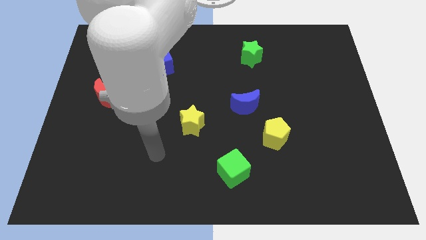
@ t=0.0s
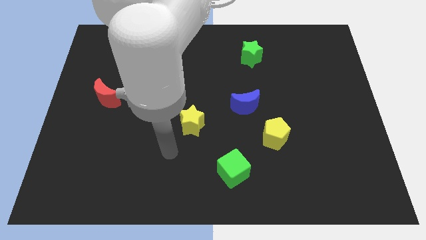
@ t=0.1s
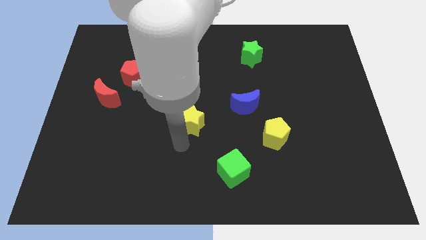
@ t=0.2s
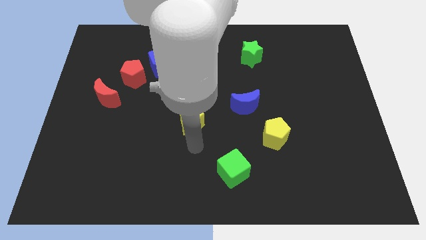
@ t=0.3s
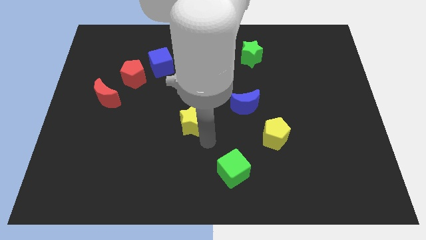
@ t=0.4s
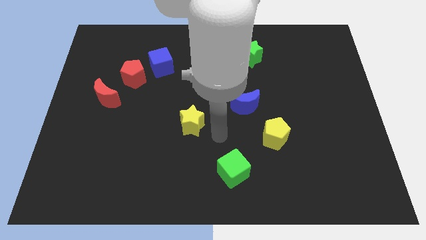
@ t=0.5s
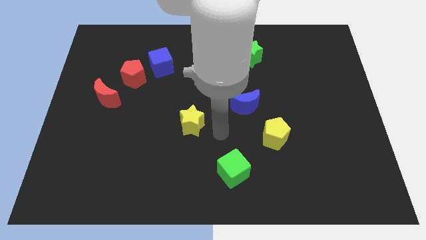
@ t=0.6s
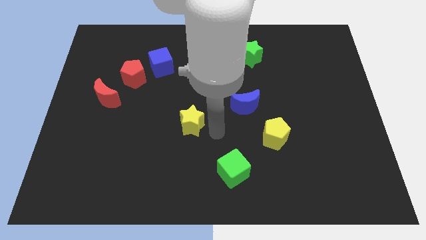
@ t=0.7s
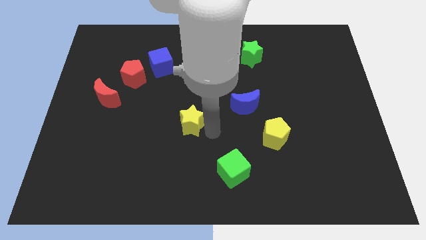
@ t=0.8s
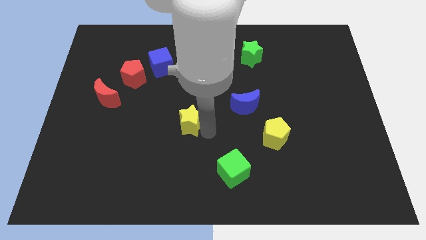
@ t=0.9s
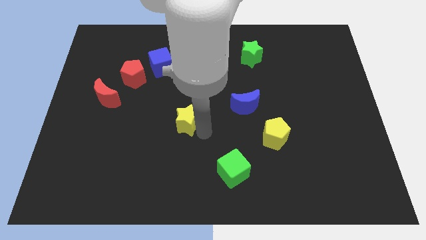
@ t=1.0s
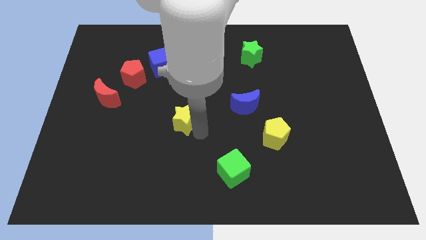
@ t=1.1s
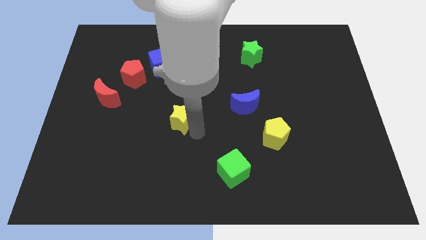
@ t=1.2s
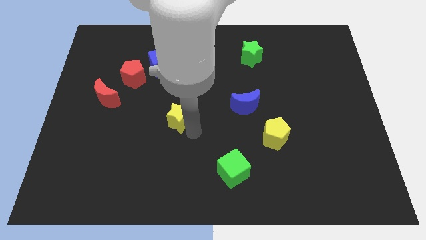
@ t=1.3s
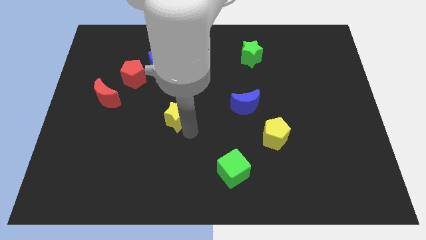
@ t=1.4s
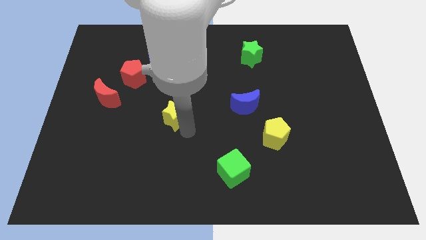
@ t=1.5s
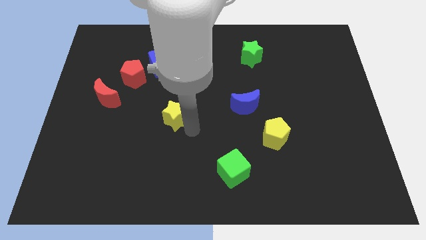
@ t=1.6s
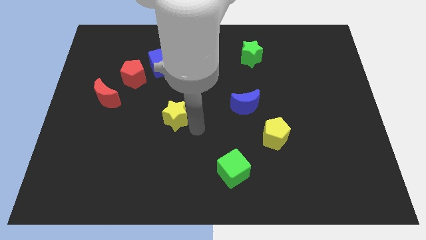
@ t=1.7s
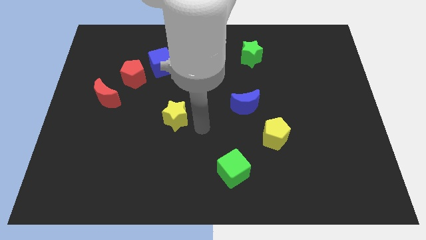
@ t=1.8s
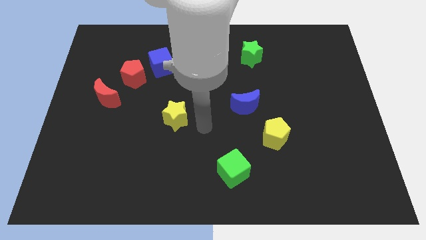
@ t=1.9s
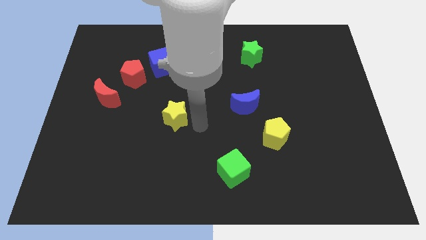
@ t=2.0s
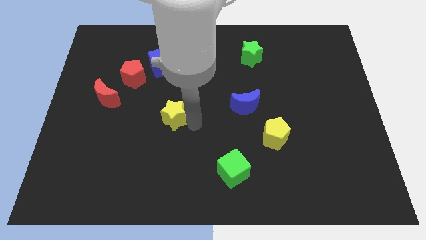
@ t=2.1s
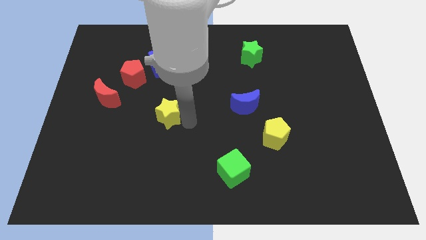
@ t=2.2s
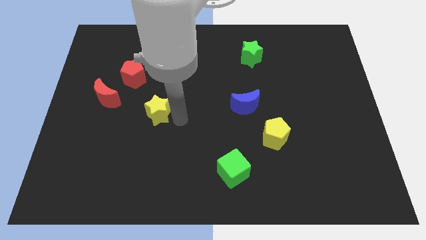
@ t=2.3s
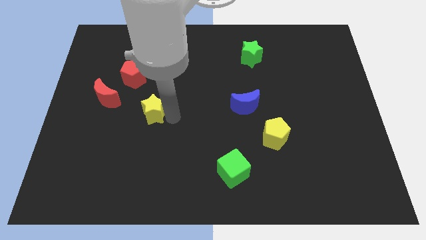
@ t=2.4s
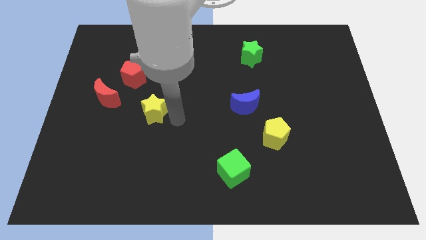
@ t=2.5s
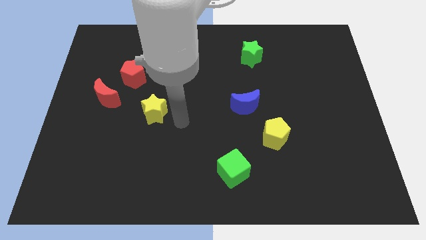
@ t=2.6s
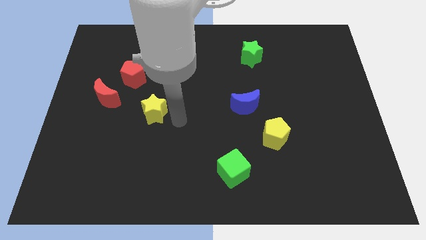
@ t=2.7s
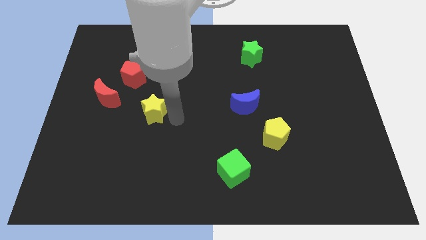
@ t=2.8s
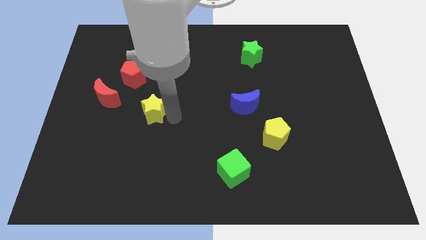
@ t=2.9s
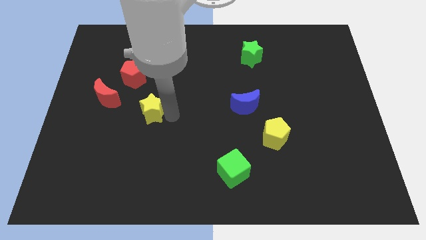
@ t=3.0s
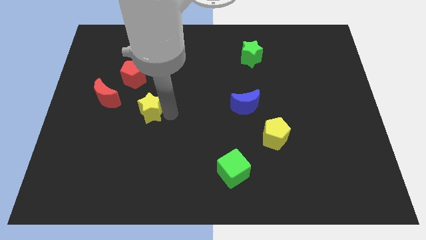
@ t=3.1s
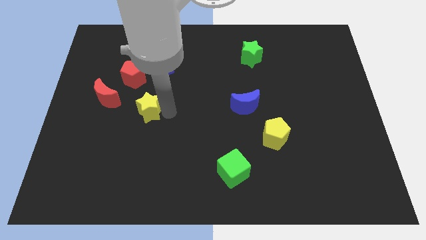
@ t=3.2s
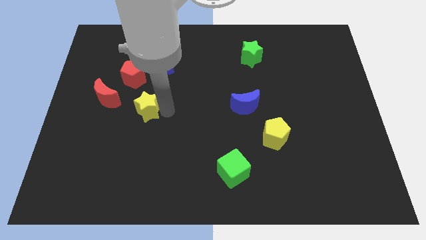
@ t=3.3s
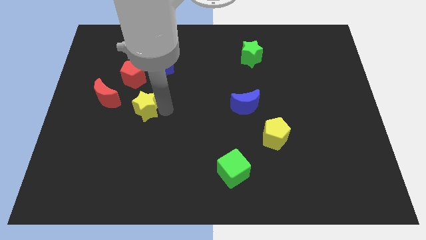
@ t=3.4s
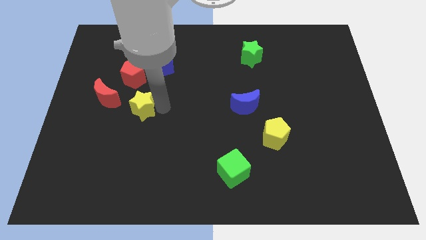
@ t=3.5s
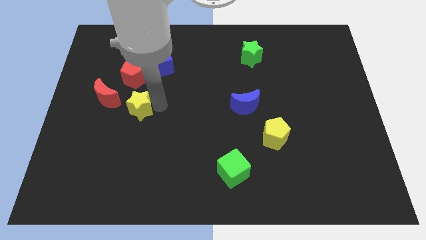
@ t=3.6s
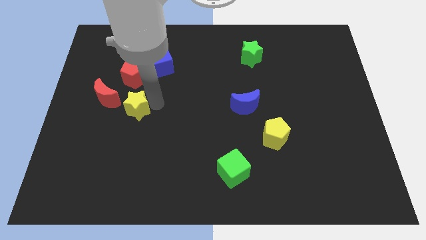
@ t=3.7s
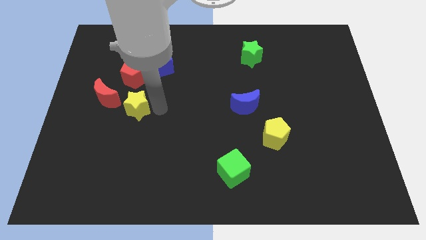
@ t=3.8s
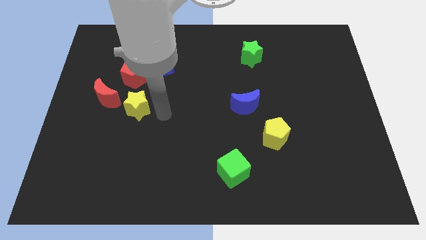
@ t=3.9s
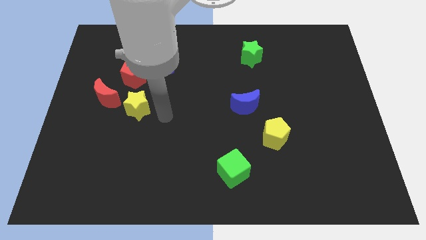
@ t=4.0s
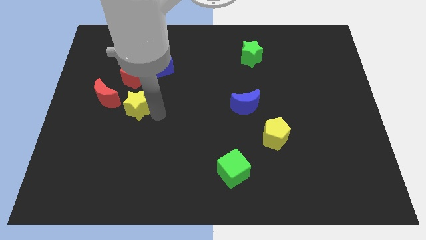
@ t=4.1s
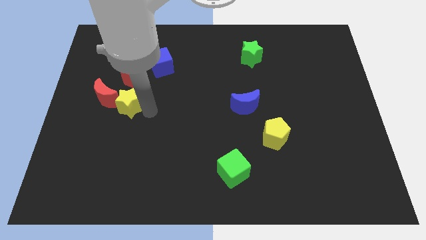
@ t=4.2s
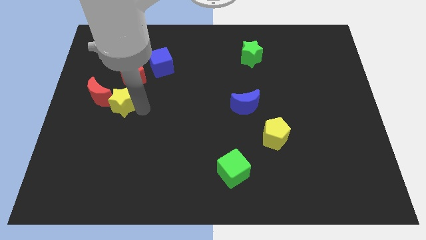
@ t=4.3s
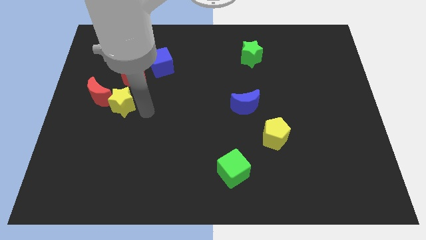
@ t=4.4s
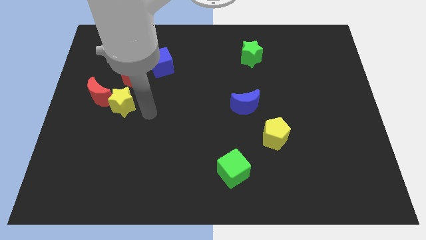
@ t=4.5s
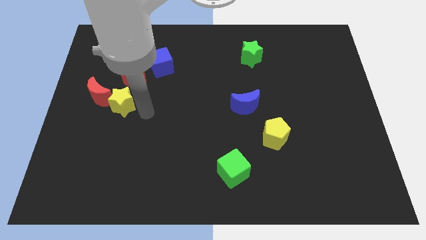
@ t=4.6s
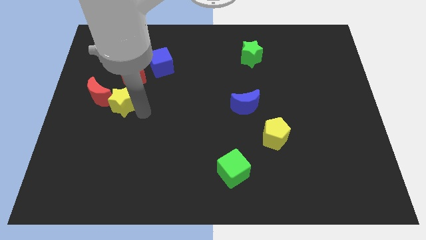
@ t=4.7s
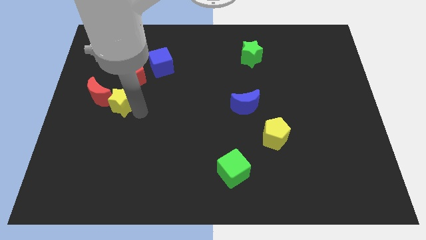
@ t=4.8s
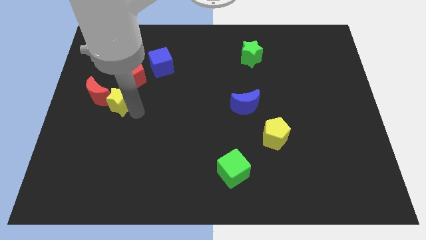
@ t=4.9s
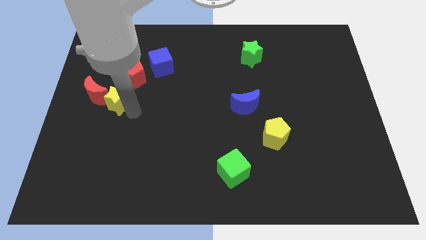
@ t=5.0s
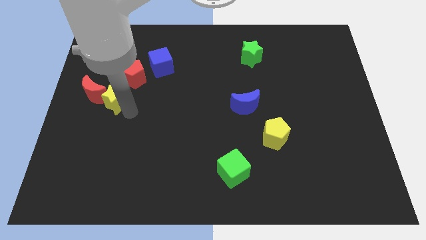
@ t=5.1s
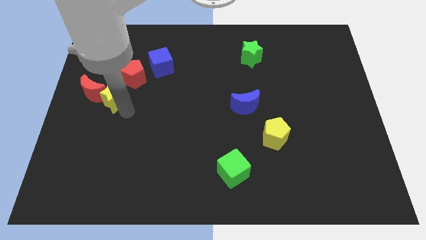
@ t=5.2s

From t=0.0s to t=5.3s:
slide the yellow star close to the red moon

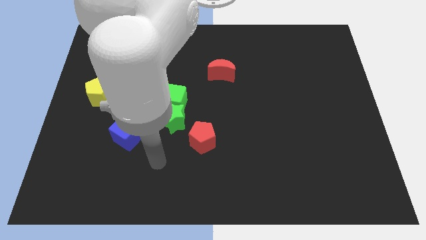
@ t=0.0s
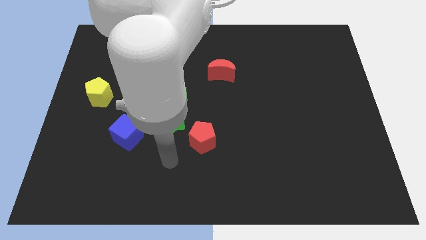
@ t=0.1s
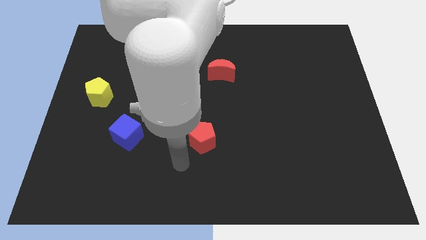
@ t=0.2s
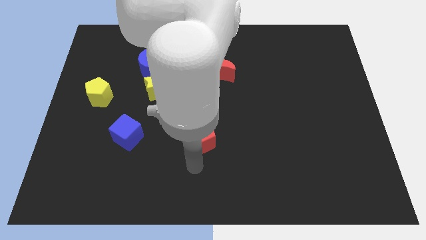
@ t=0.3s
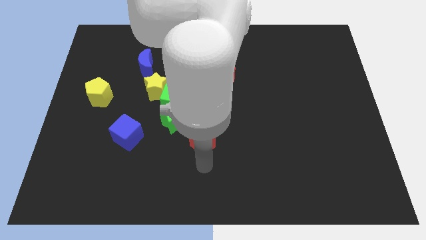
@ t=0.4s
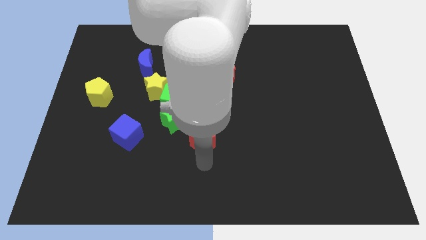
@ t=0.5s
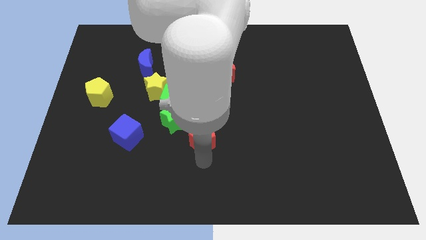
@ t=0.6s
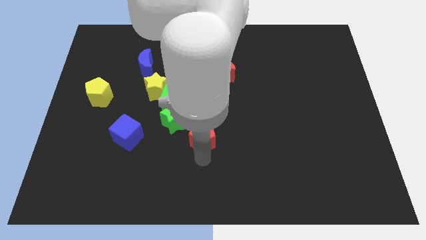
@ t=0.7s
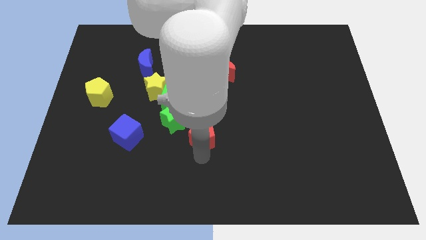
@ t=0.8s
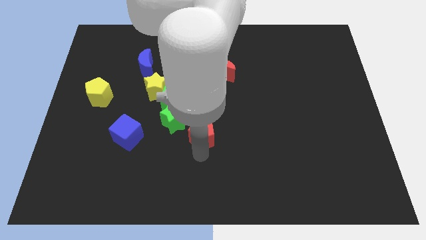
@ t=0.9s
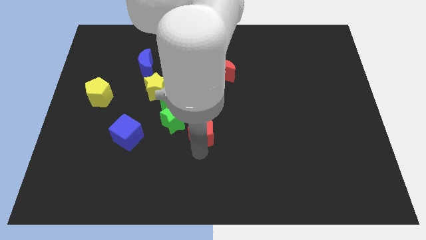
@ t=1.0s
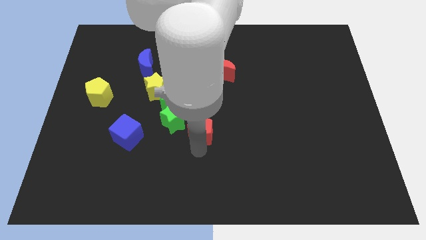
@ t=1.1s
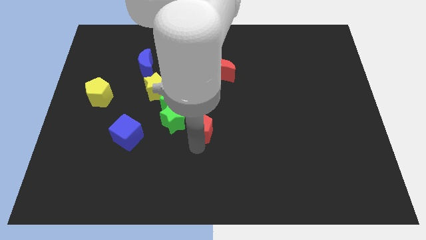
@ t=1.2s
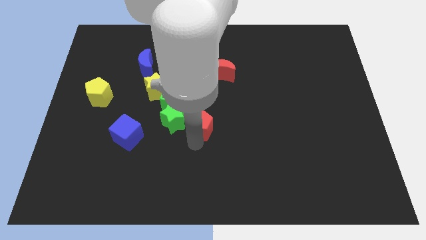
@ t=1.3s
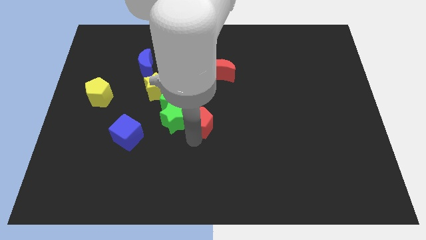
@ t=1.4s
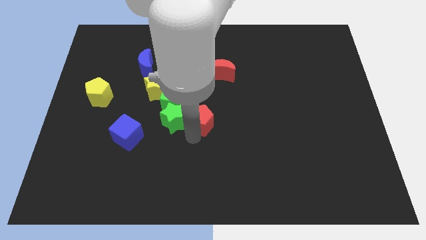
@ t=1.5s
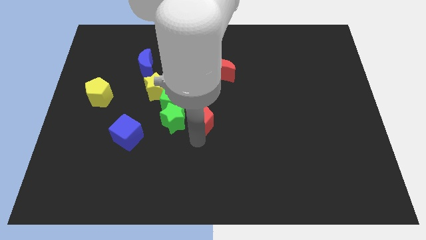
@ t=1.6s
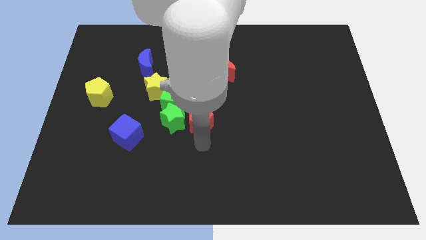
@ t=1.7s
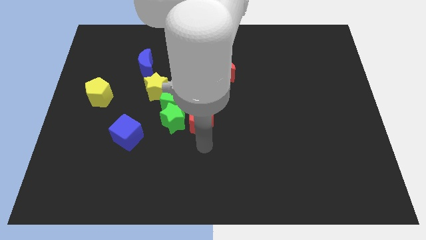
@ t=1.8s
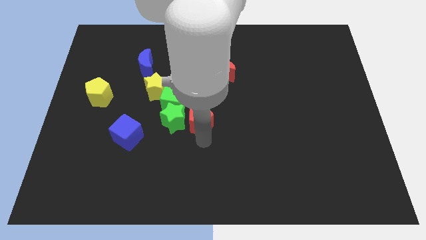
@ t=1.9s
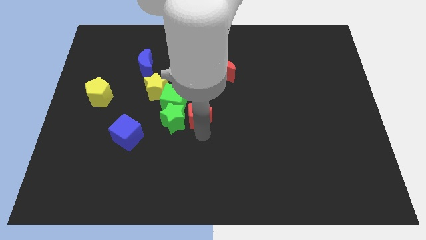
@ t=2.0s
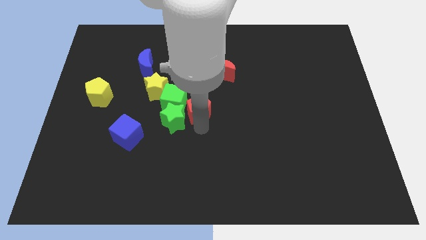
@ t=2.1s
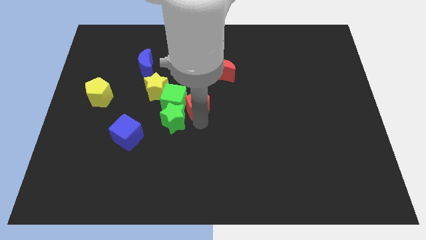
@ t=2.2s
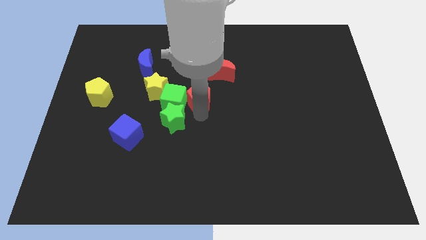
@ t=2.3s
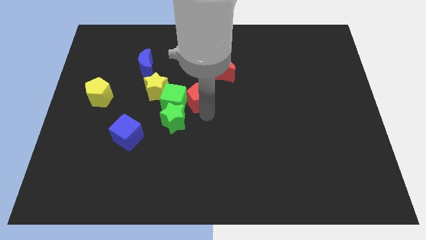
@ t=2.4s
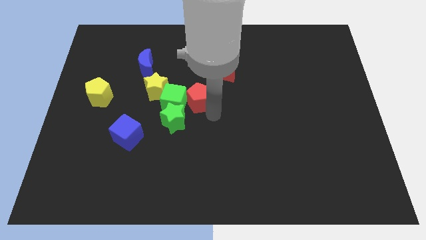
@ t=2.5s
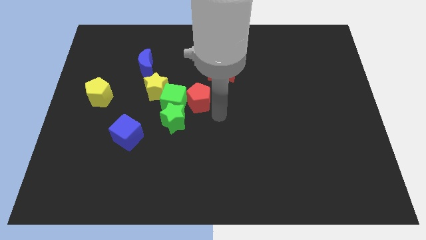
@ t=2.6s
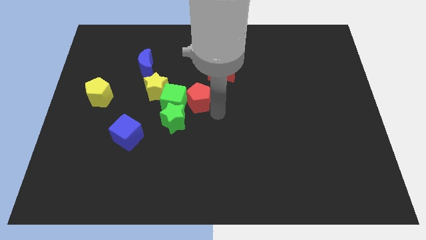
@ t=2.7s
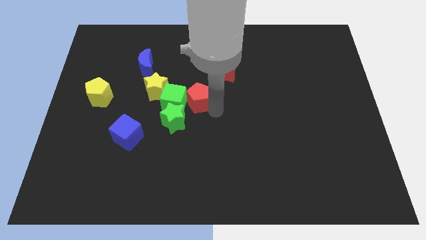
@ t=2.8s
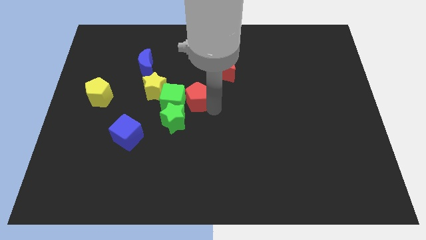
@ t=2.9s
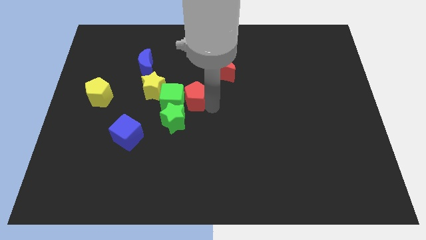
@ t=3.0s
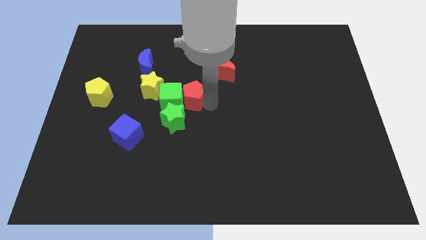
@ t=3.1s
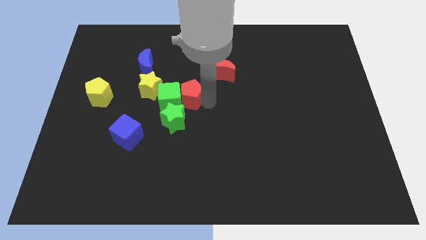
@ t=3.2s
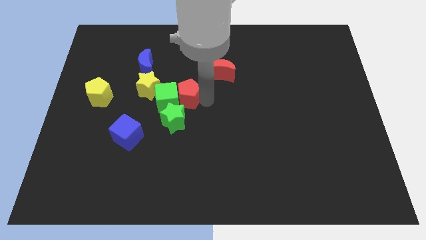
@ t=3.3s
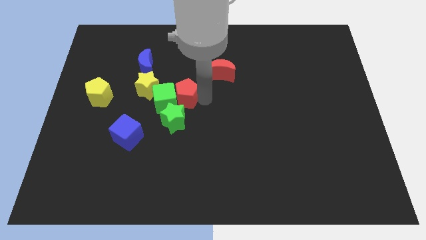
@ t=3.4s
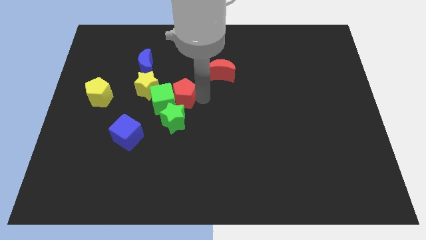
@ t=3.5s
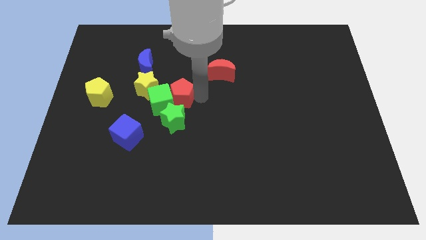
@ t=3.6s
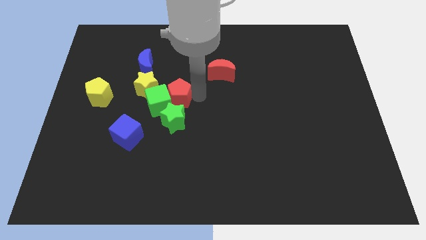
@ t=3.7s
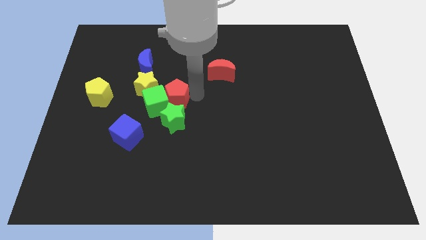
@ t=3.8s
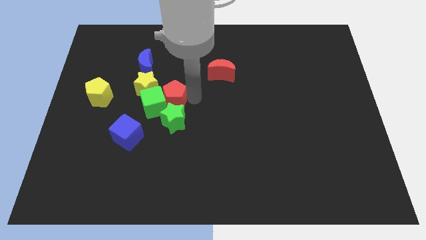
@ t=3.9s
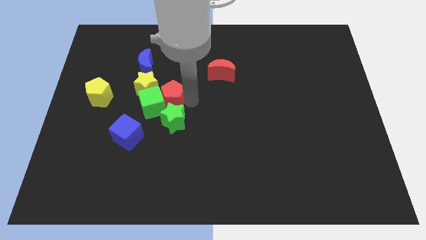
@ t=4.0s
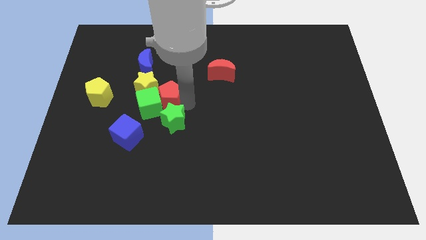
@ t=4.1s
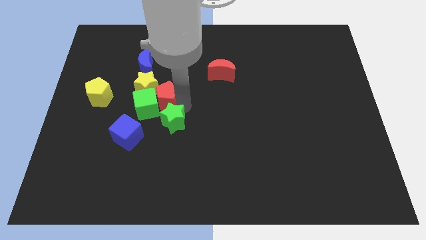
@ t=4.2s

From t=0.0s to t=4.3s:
move the red pentagon towards the yellow star
